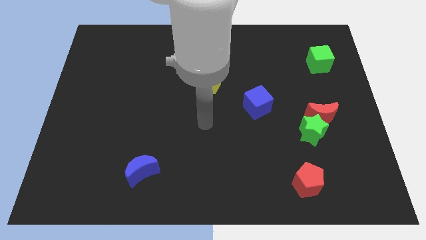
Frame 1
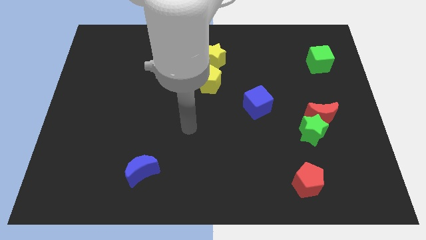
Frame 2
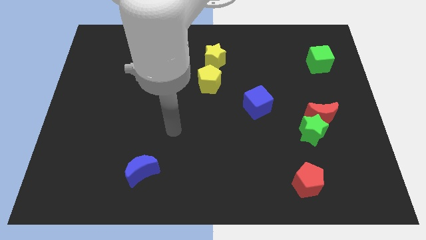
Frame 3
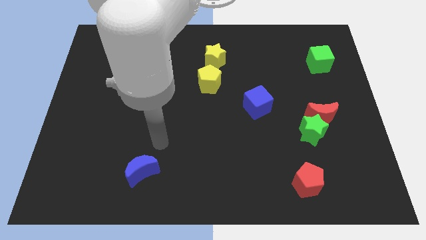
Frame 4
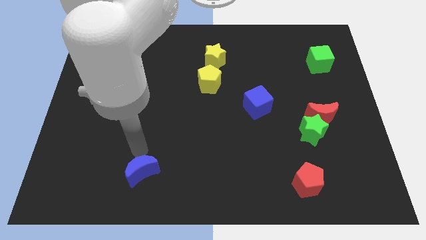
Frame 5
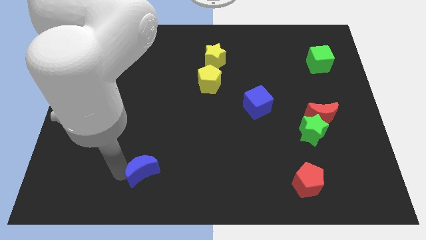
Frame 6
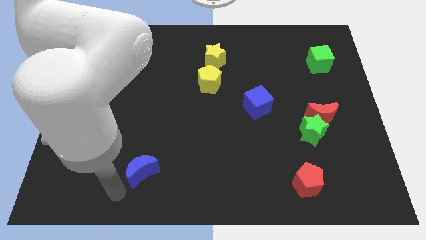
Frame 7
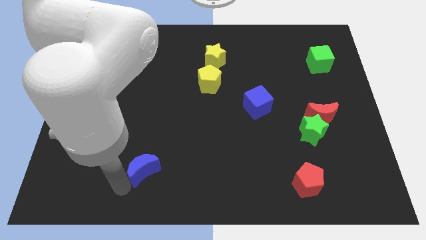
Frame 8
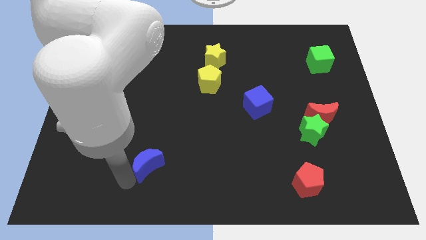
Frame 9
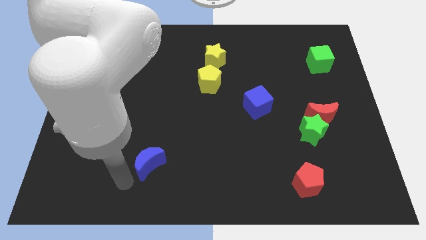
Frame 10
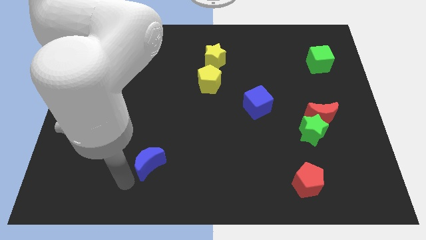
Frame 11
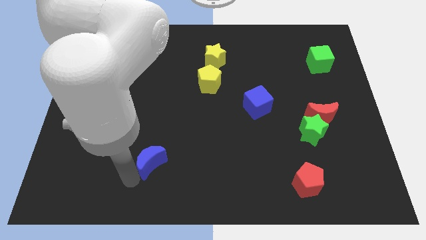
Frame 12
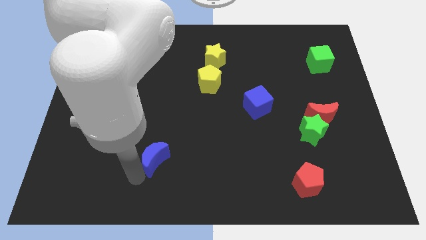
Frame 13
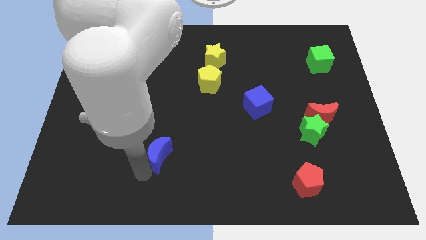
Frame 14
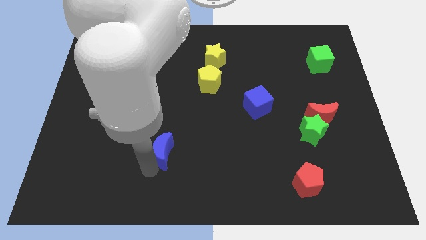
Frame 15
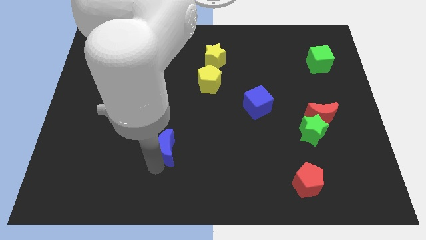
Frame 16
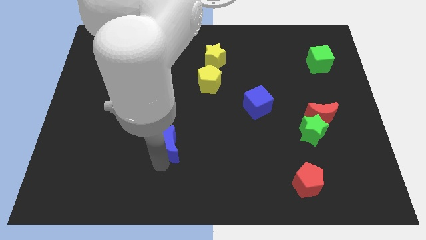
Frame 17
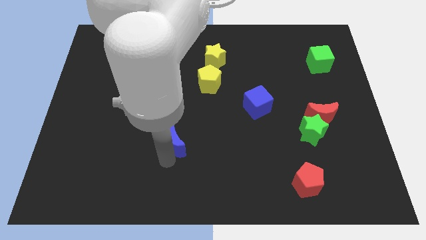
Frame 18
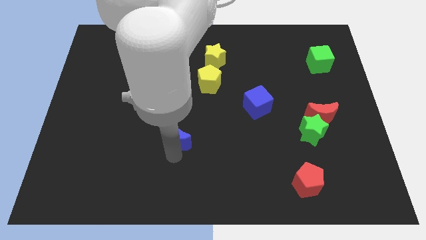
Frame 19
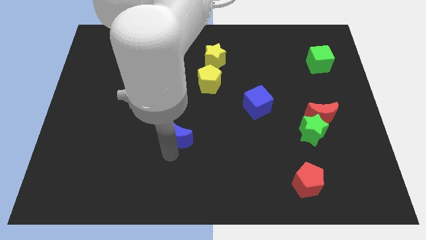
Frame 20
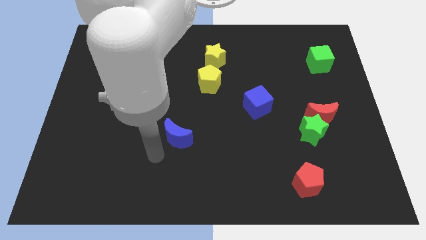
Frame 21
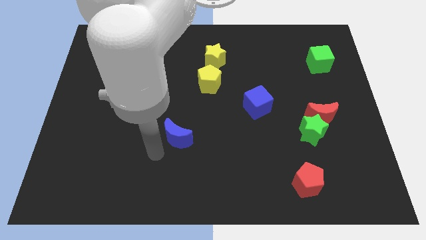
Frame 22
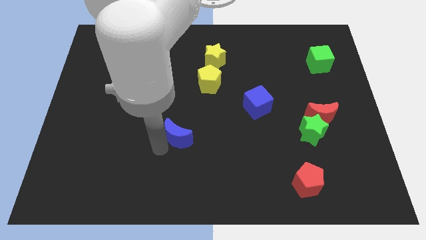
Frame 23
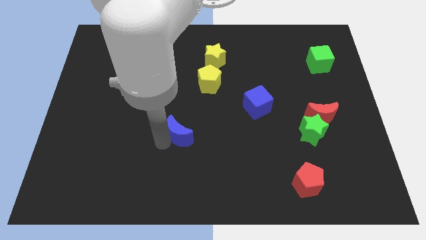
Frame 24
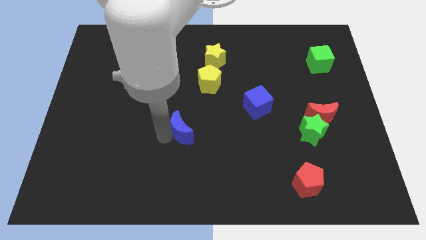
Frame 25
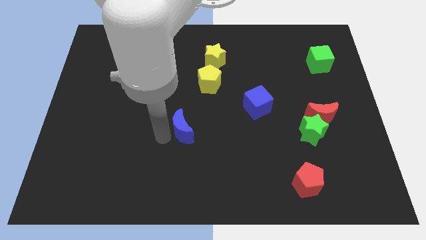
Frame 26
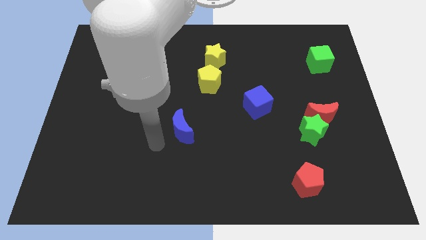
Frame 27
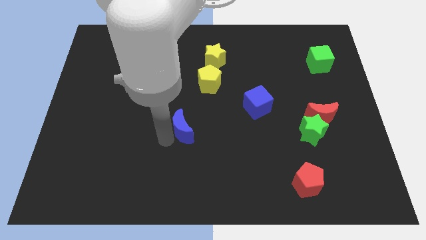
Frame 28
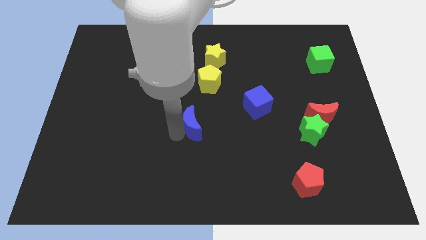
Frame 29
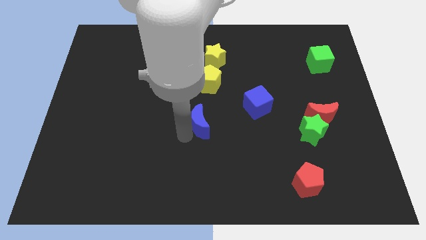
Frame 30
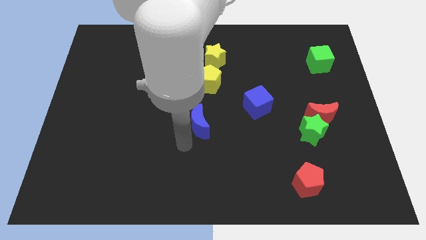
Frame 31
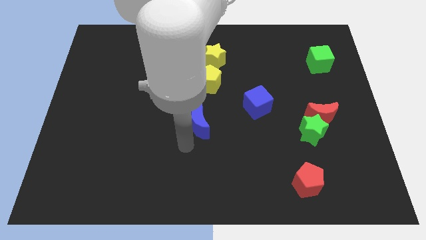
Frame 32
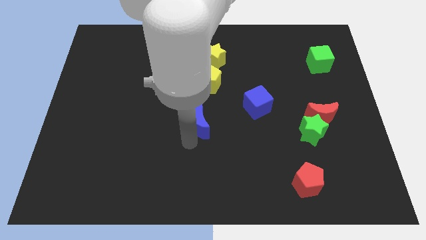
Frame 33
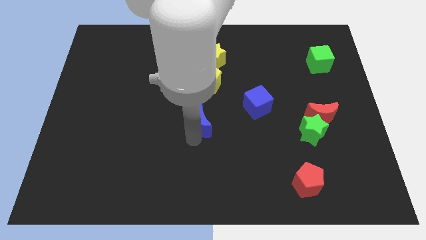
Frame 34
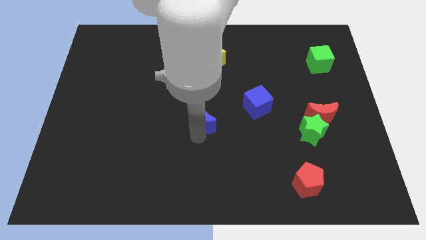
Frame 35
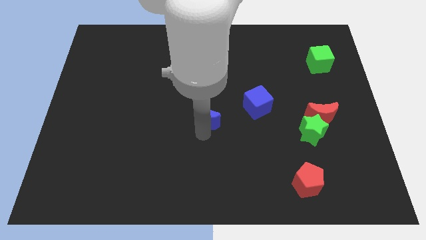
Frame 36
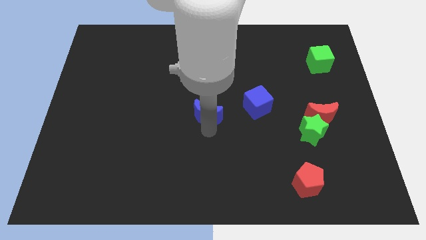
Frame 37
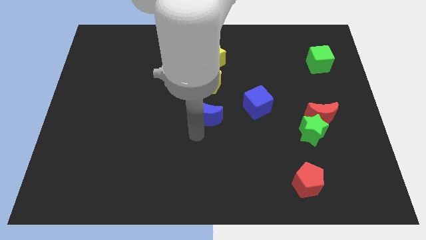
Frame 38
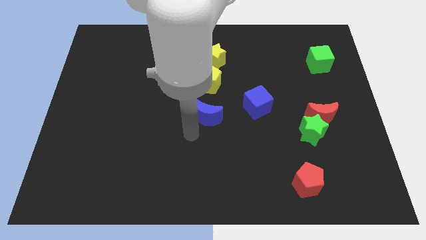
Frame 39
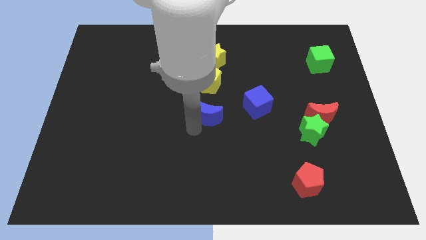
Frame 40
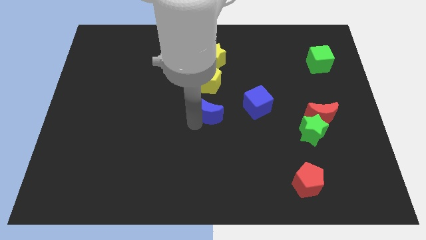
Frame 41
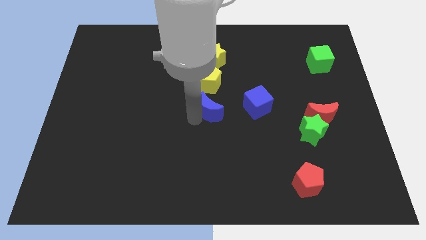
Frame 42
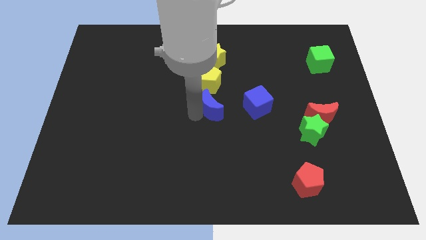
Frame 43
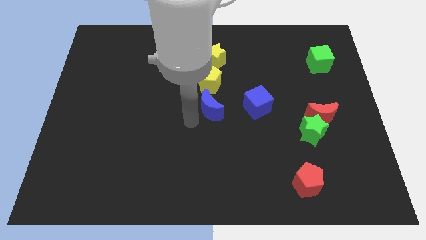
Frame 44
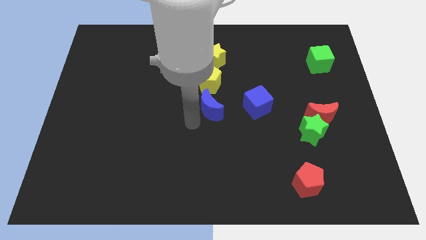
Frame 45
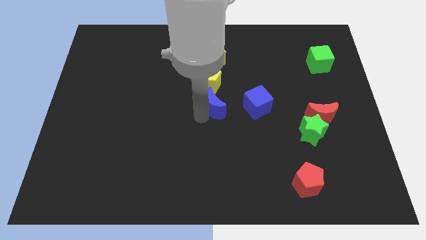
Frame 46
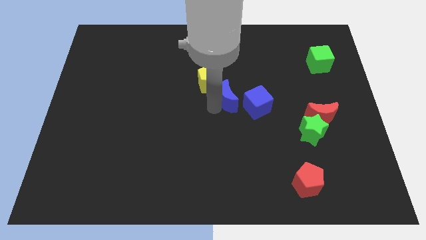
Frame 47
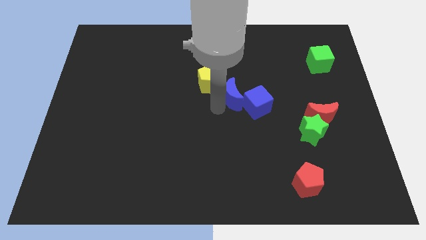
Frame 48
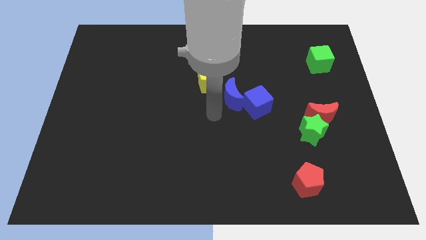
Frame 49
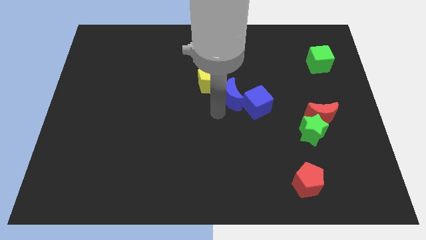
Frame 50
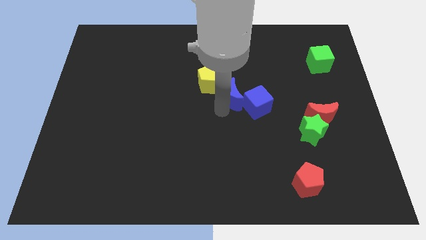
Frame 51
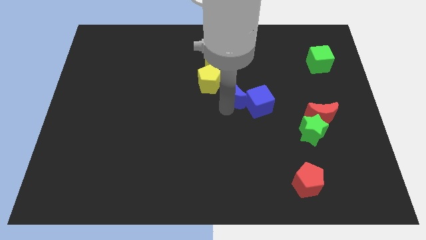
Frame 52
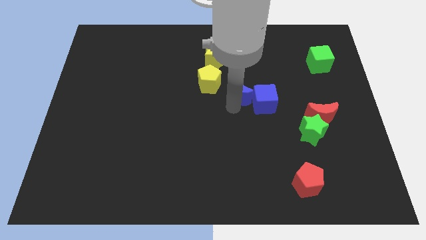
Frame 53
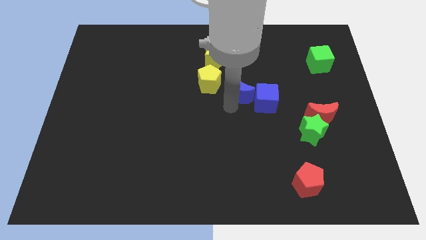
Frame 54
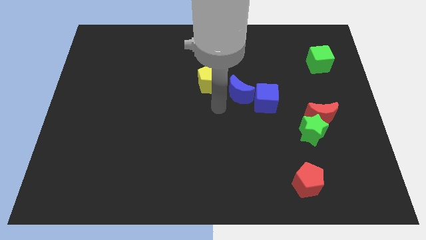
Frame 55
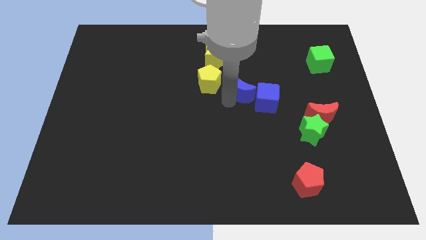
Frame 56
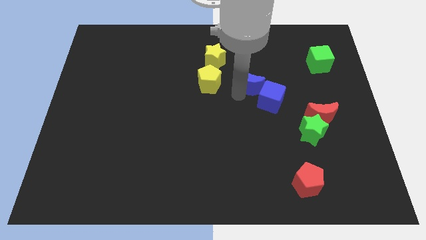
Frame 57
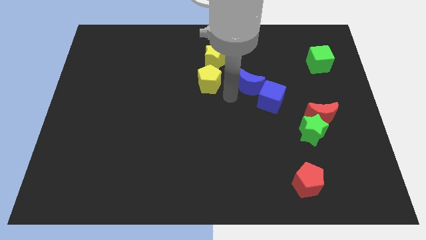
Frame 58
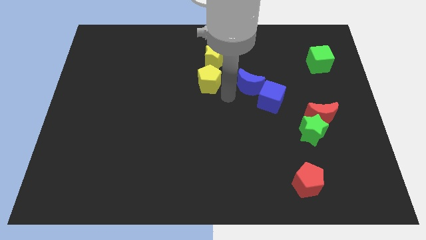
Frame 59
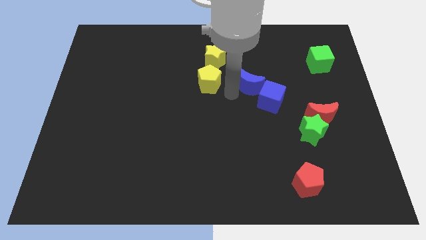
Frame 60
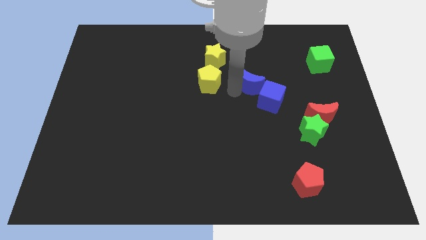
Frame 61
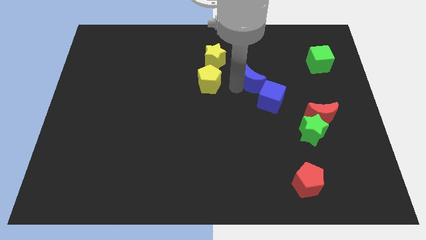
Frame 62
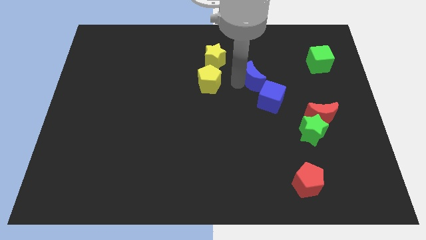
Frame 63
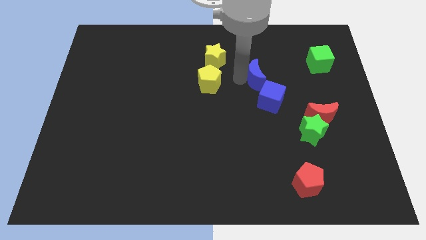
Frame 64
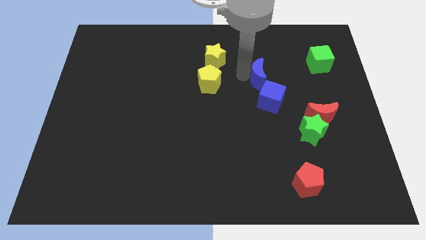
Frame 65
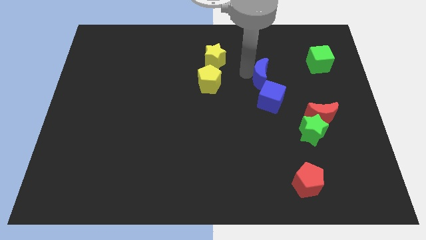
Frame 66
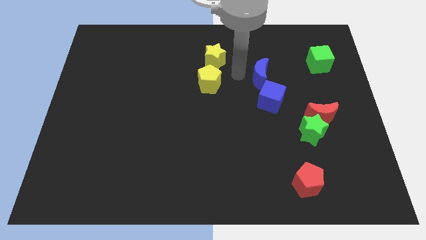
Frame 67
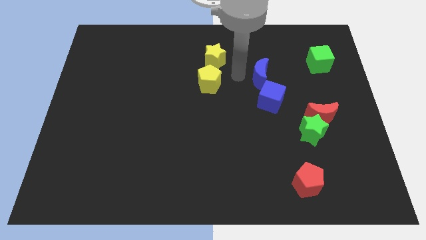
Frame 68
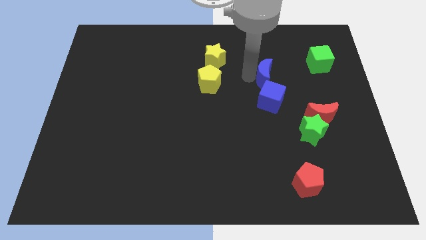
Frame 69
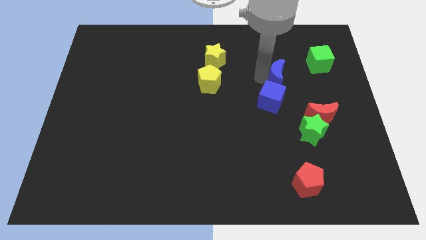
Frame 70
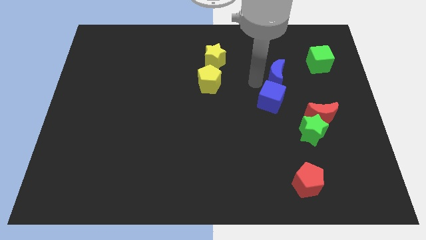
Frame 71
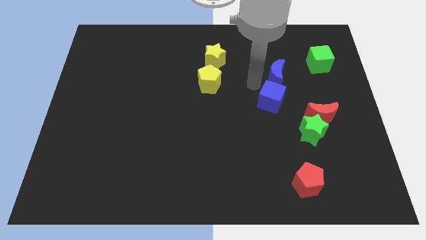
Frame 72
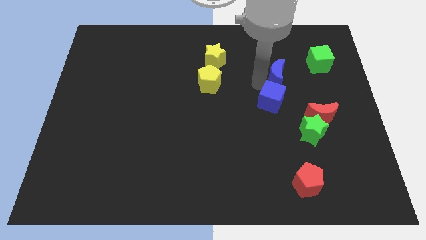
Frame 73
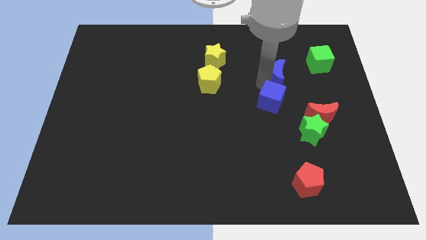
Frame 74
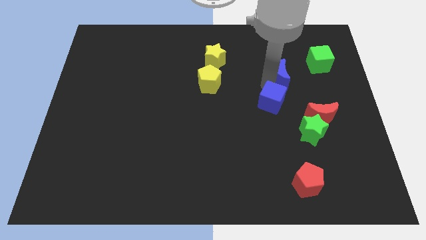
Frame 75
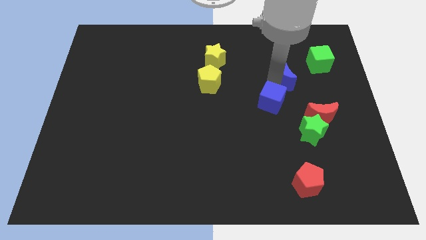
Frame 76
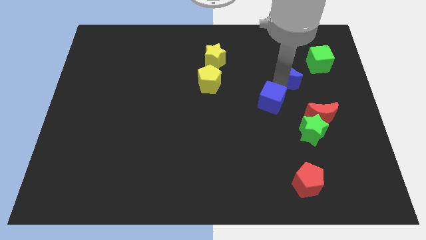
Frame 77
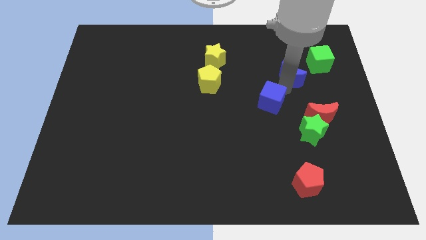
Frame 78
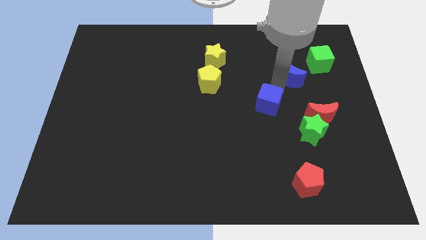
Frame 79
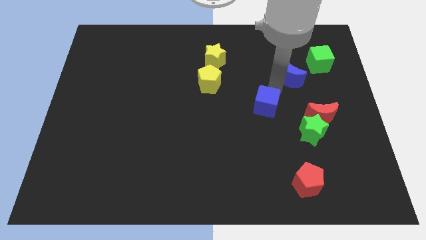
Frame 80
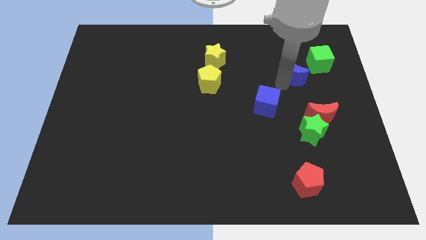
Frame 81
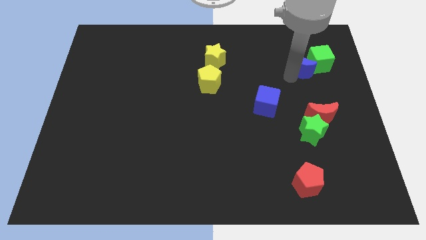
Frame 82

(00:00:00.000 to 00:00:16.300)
put the blue moon towards the green cube
